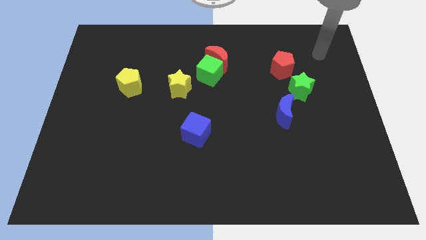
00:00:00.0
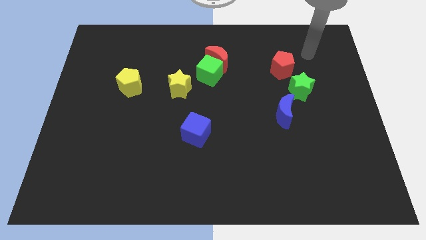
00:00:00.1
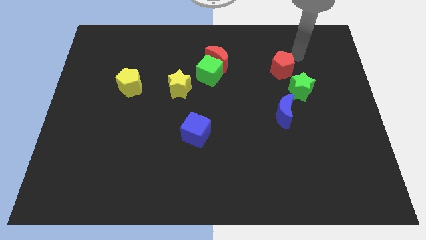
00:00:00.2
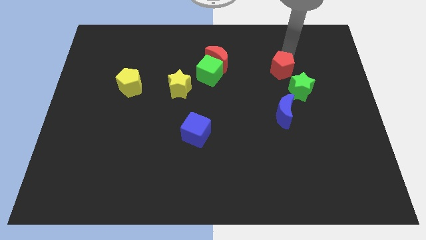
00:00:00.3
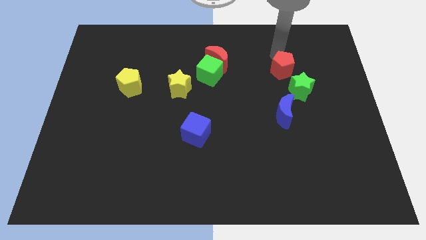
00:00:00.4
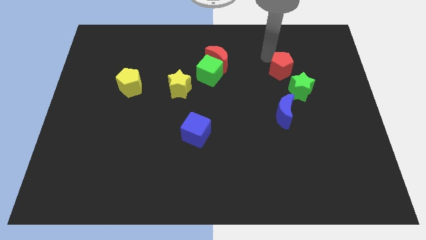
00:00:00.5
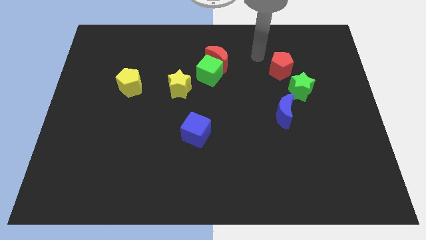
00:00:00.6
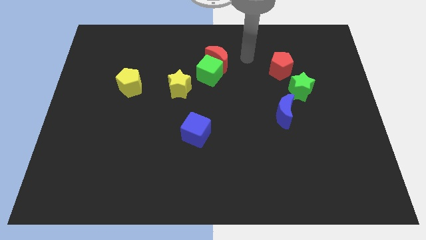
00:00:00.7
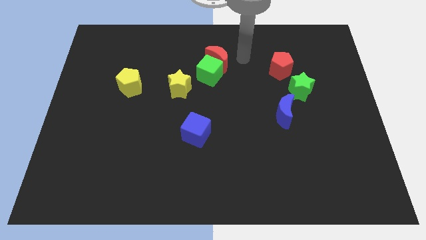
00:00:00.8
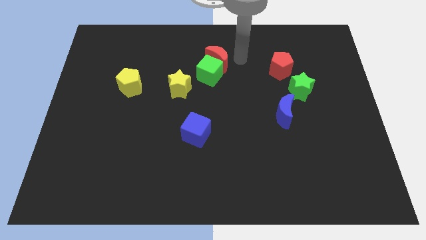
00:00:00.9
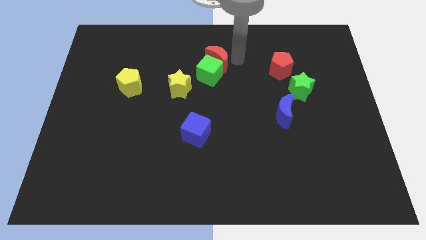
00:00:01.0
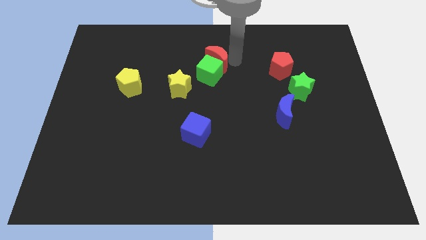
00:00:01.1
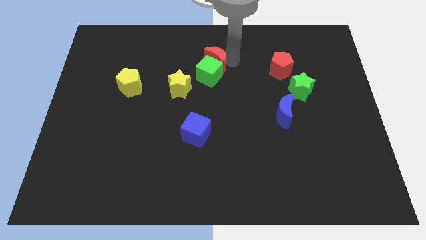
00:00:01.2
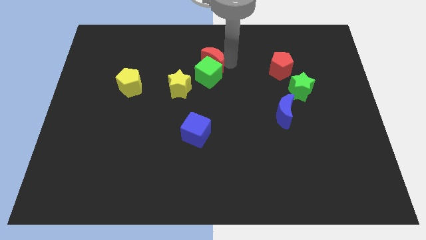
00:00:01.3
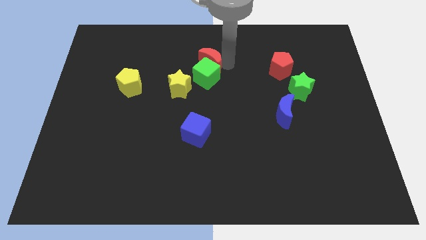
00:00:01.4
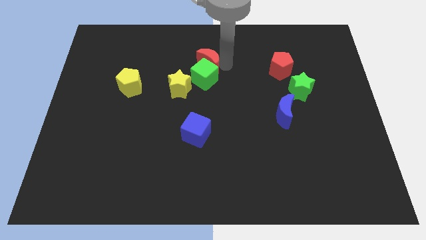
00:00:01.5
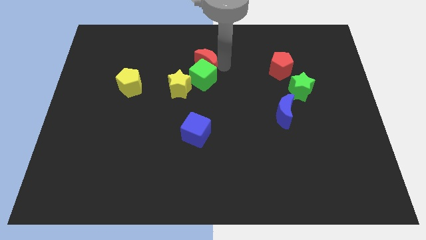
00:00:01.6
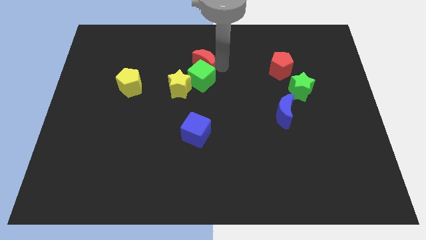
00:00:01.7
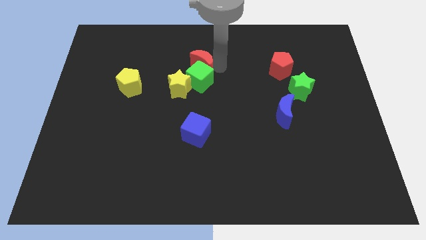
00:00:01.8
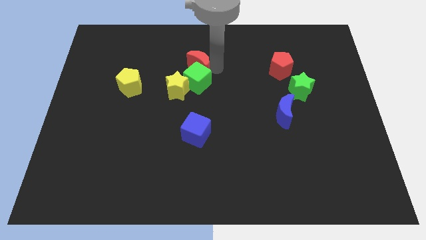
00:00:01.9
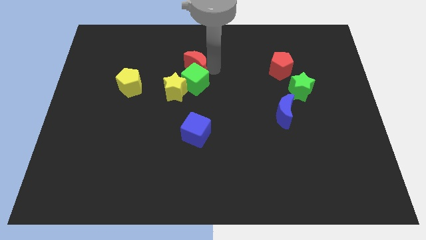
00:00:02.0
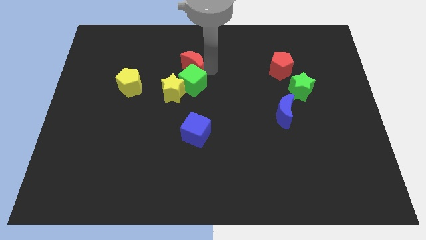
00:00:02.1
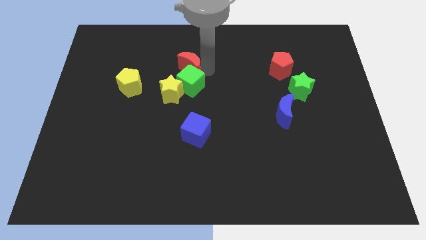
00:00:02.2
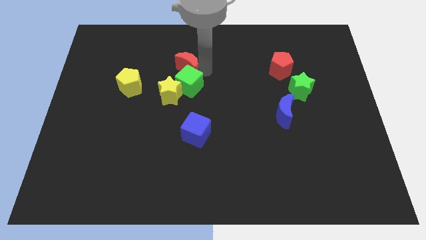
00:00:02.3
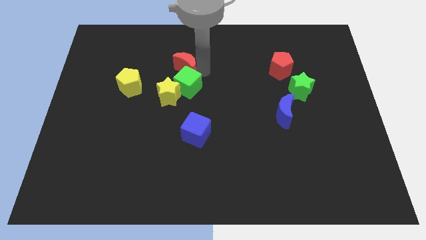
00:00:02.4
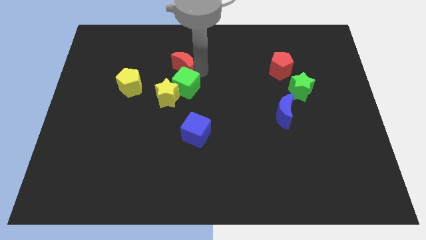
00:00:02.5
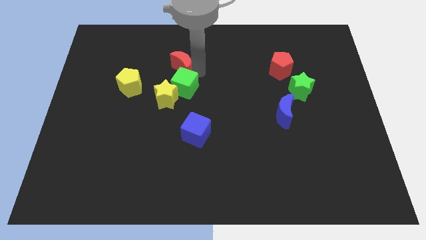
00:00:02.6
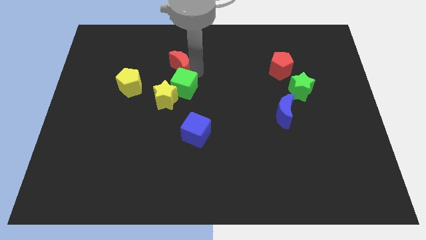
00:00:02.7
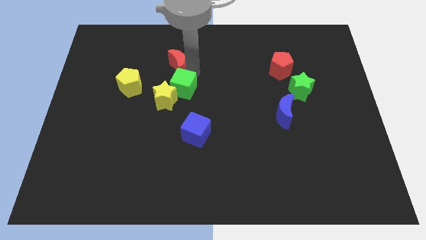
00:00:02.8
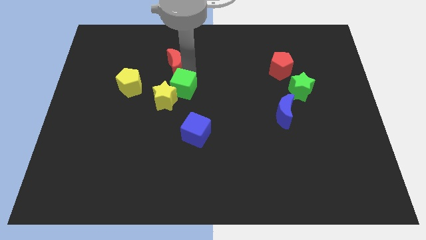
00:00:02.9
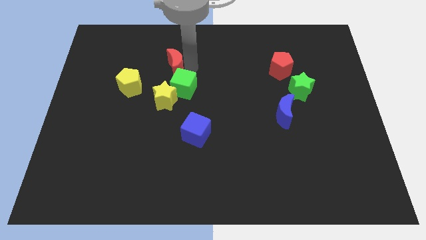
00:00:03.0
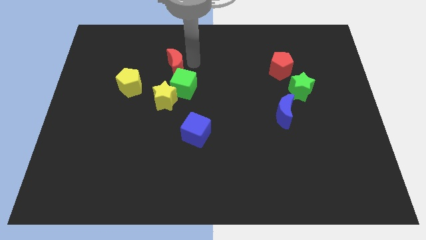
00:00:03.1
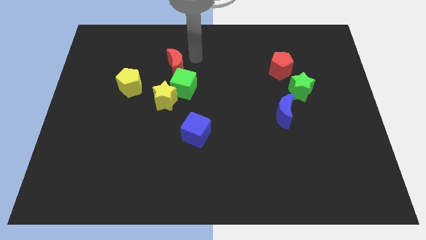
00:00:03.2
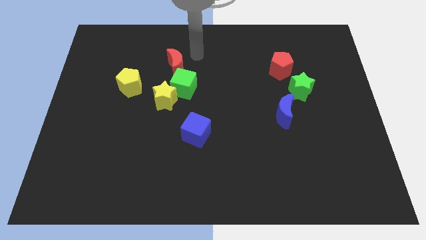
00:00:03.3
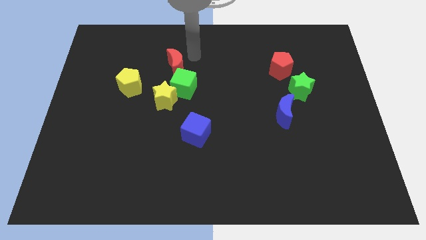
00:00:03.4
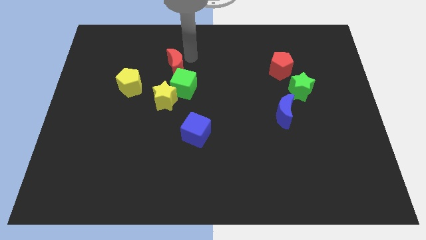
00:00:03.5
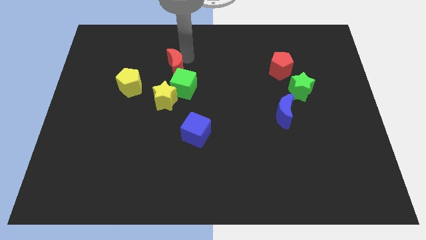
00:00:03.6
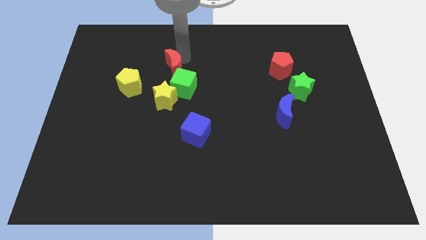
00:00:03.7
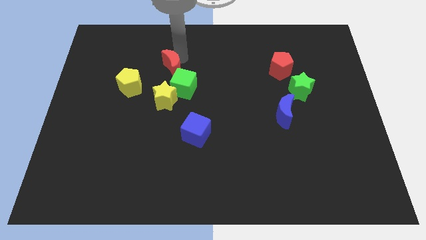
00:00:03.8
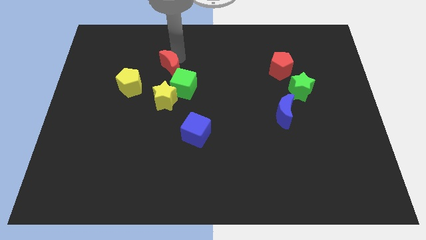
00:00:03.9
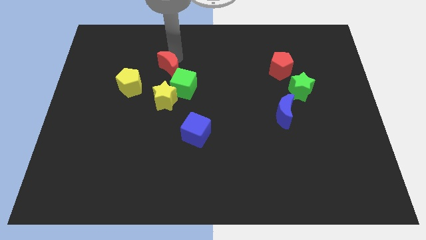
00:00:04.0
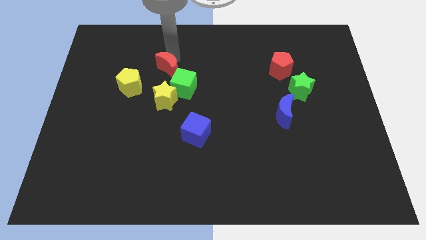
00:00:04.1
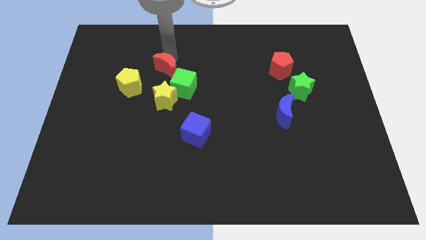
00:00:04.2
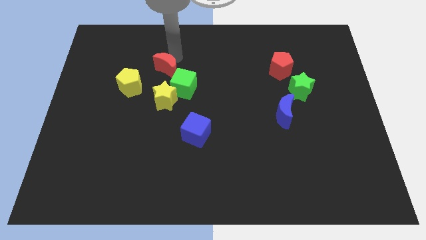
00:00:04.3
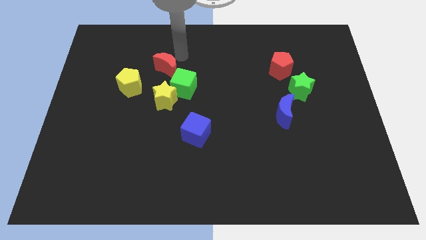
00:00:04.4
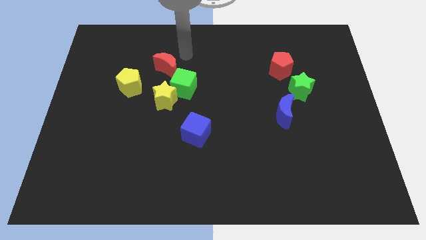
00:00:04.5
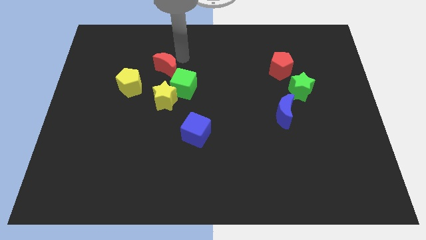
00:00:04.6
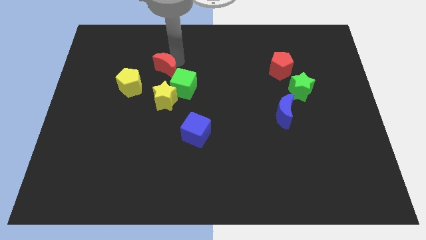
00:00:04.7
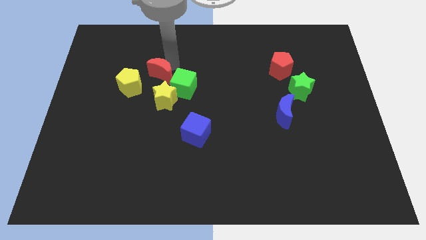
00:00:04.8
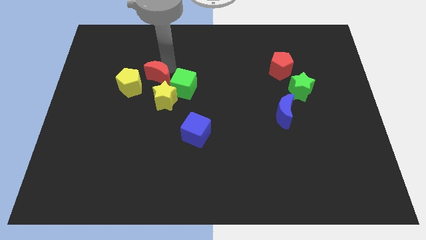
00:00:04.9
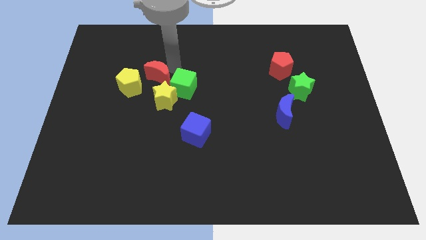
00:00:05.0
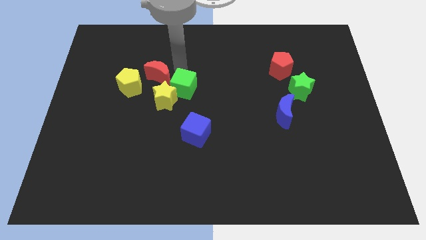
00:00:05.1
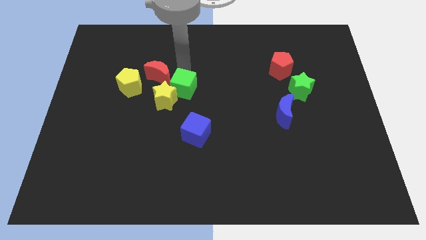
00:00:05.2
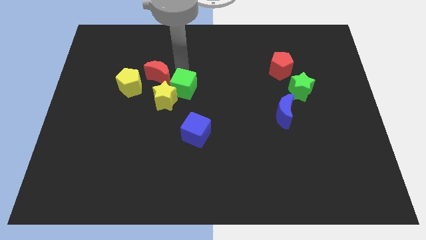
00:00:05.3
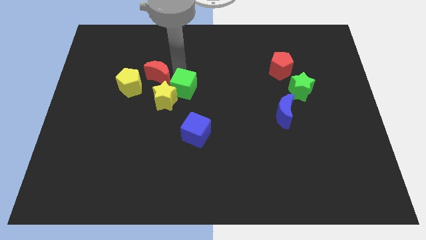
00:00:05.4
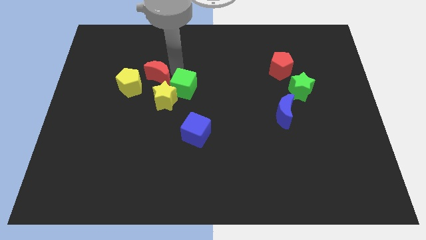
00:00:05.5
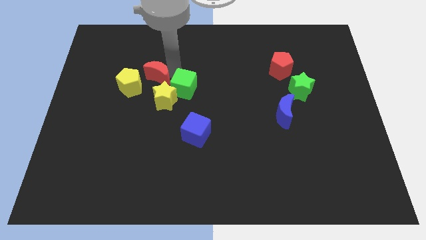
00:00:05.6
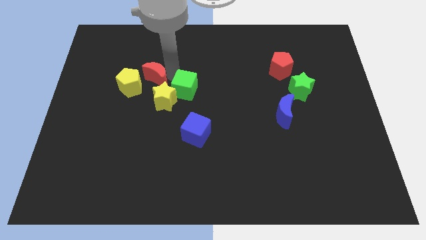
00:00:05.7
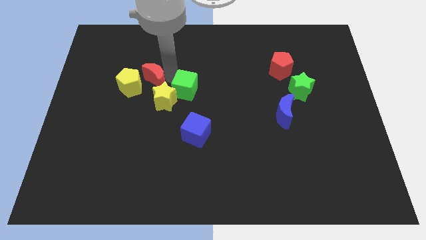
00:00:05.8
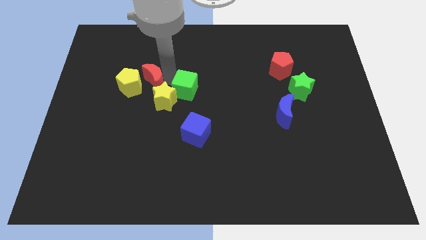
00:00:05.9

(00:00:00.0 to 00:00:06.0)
slide the red moon towards the yellow pentagon

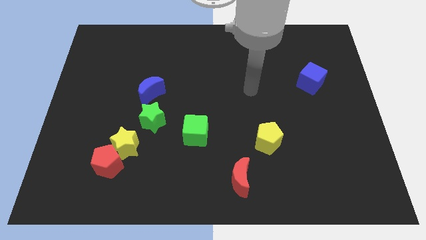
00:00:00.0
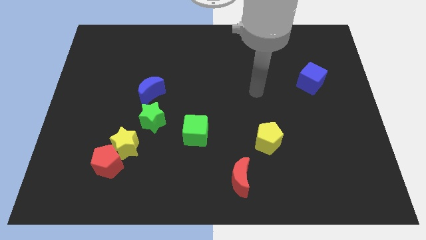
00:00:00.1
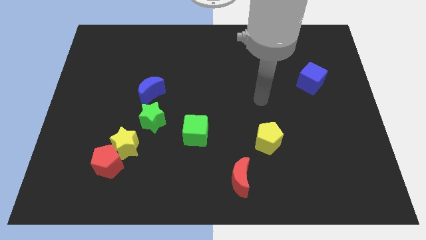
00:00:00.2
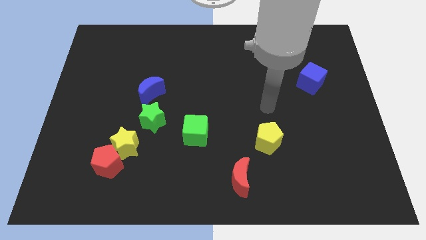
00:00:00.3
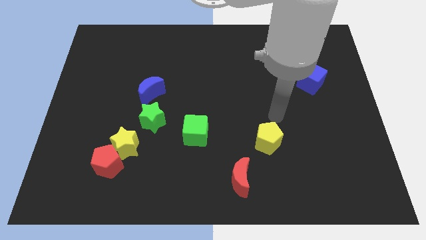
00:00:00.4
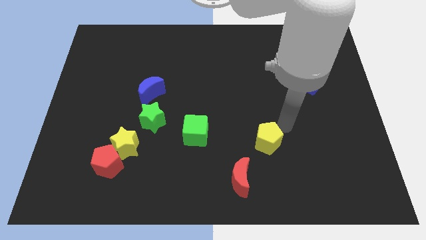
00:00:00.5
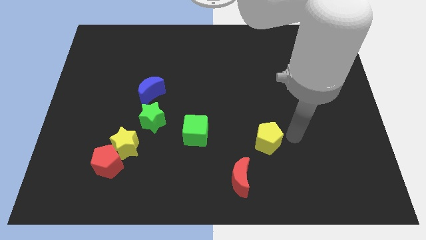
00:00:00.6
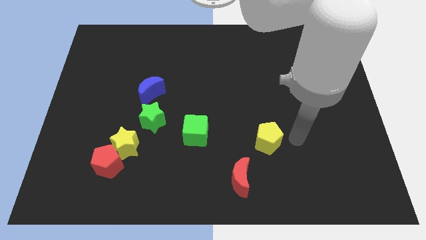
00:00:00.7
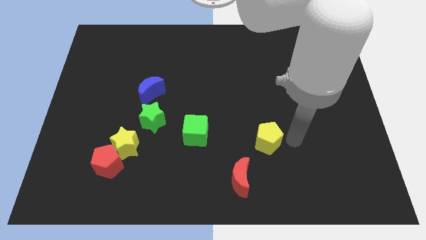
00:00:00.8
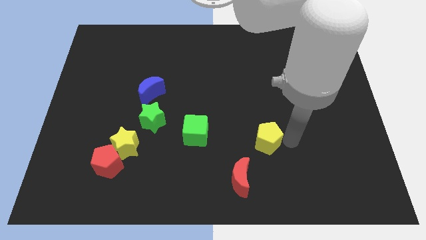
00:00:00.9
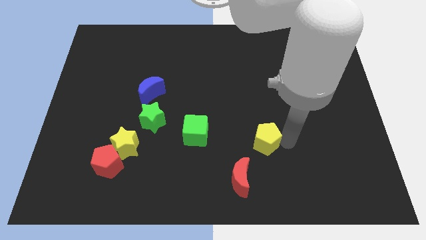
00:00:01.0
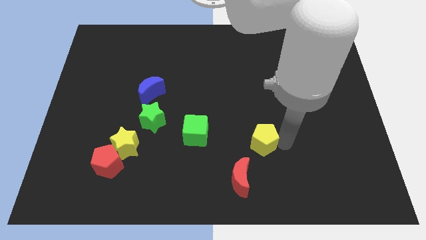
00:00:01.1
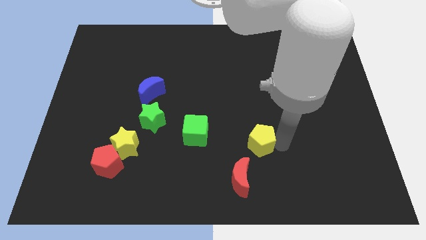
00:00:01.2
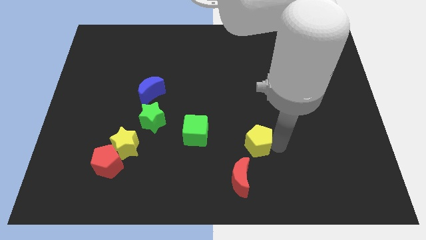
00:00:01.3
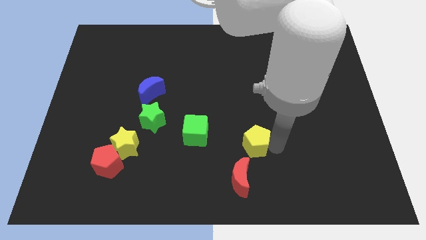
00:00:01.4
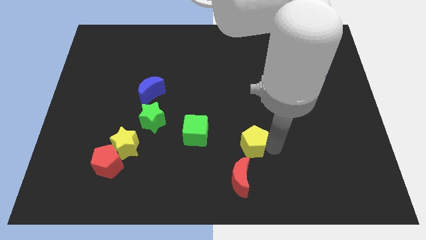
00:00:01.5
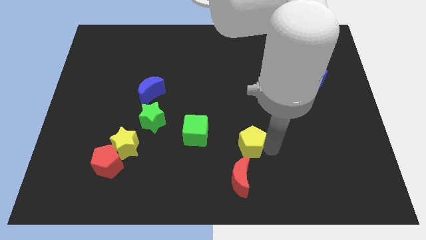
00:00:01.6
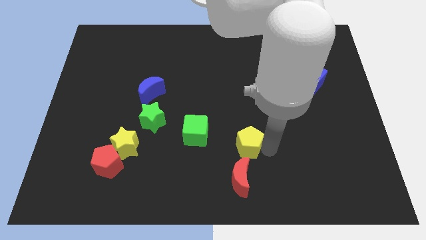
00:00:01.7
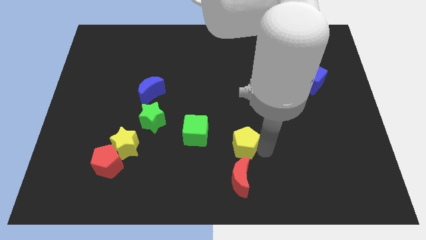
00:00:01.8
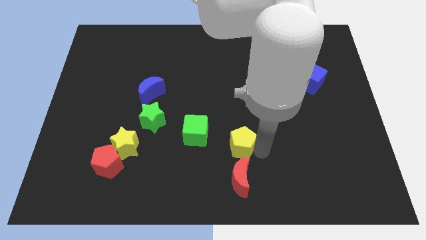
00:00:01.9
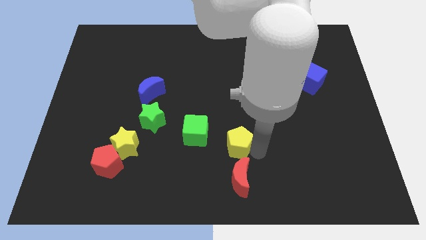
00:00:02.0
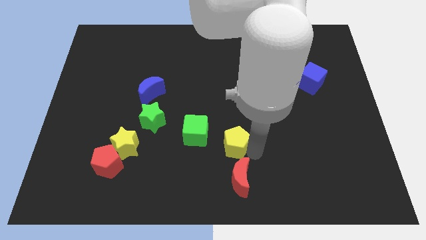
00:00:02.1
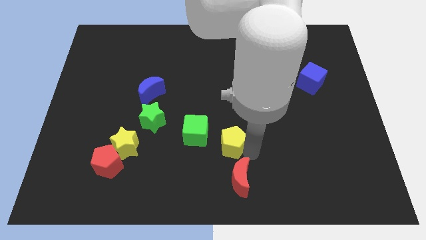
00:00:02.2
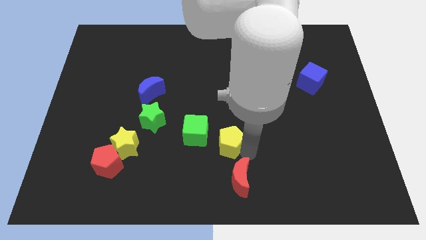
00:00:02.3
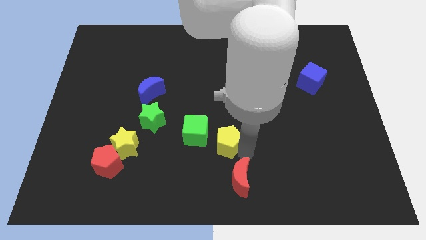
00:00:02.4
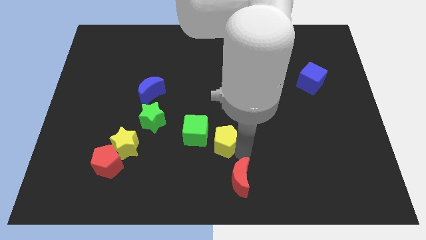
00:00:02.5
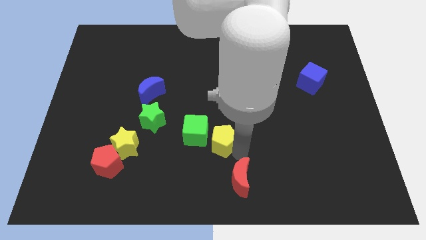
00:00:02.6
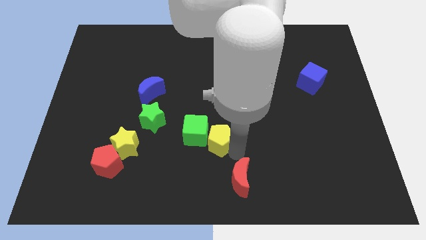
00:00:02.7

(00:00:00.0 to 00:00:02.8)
slide the yellow pentagon to the green cube
